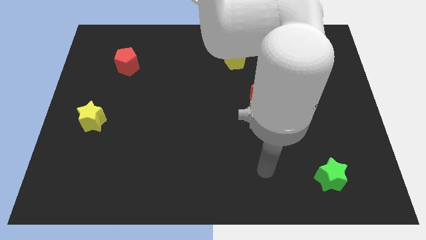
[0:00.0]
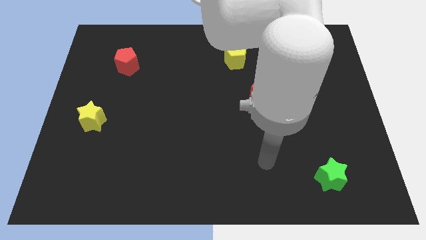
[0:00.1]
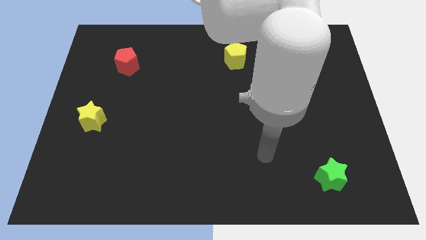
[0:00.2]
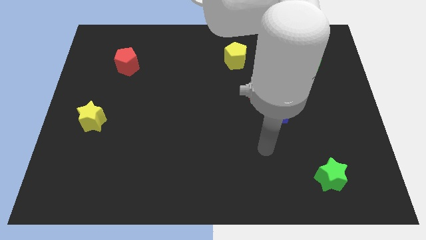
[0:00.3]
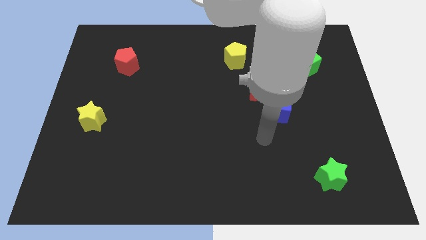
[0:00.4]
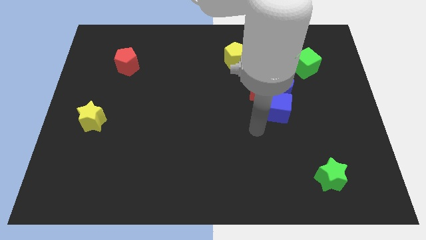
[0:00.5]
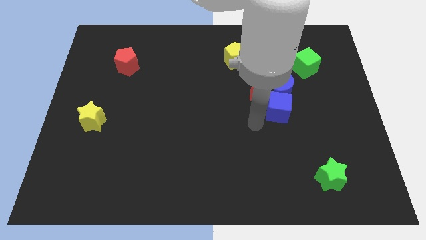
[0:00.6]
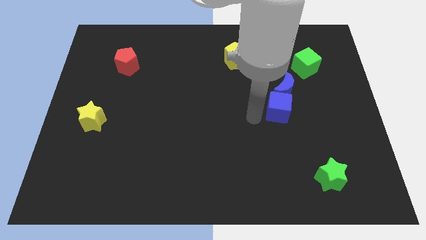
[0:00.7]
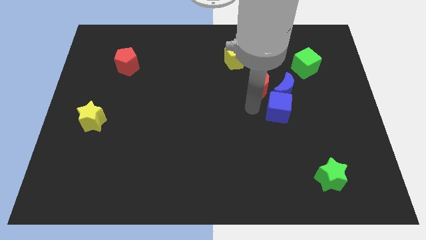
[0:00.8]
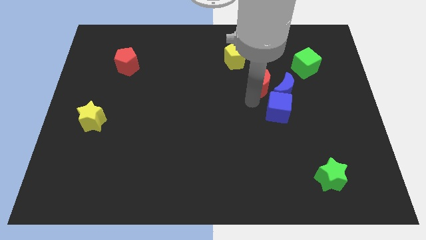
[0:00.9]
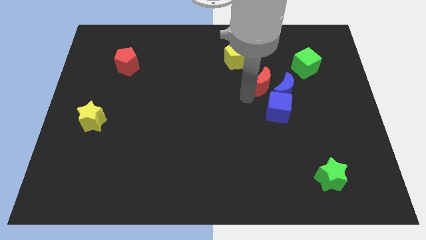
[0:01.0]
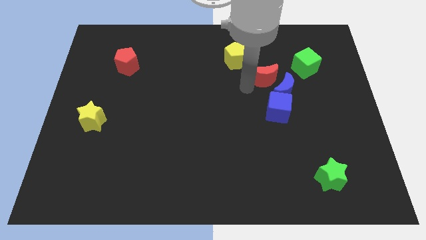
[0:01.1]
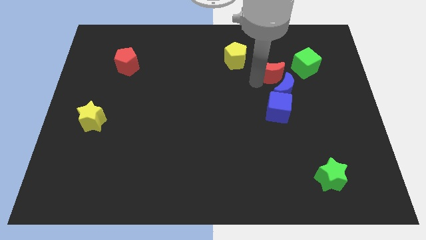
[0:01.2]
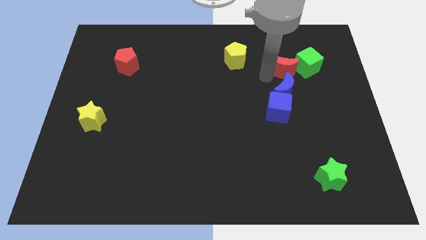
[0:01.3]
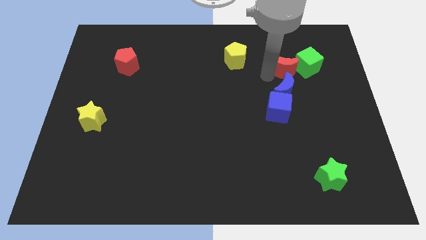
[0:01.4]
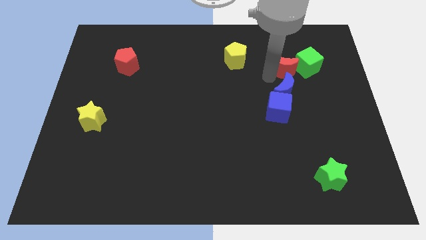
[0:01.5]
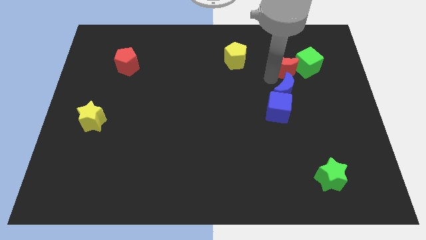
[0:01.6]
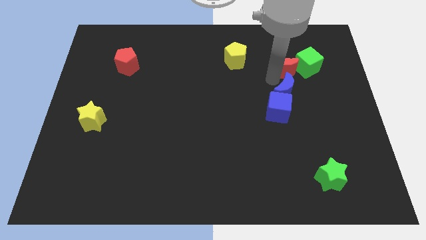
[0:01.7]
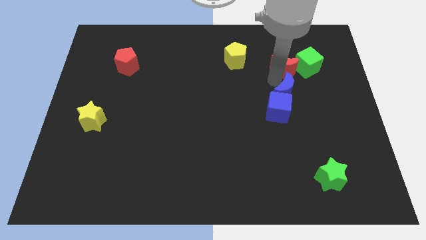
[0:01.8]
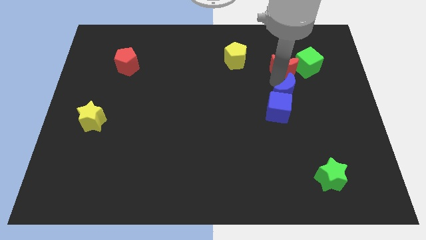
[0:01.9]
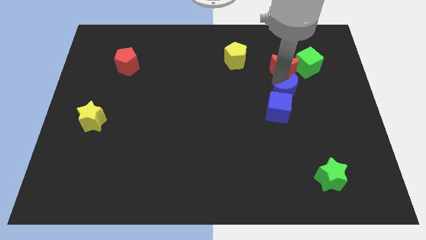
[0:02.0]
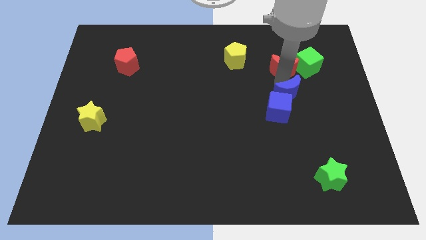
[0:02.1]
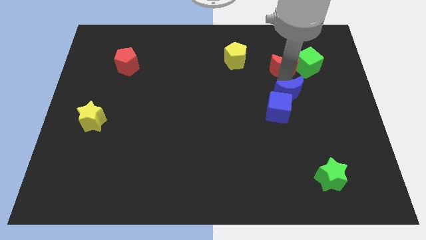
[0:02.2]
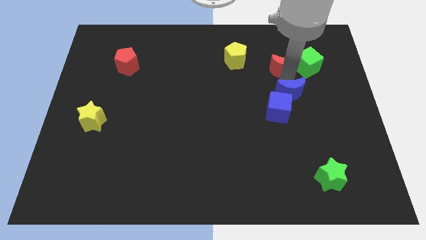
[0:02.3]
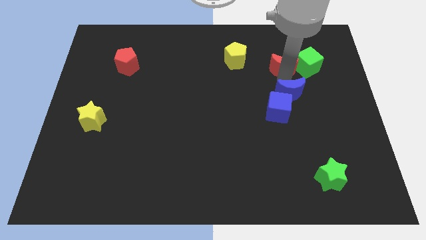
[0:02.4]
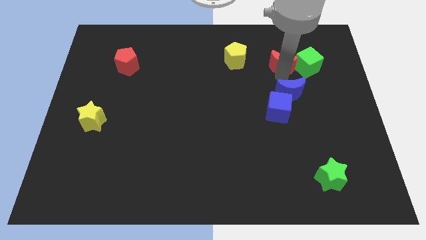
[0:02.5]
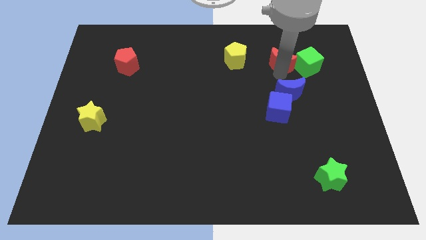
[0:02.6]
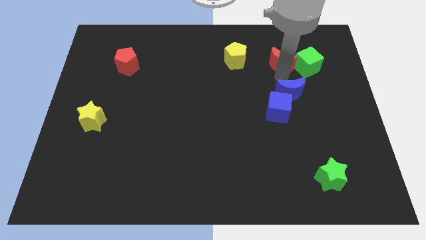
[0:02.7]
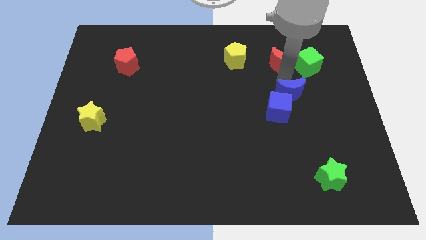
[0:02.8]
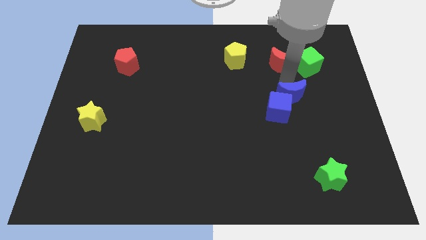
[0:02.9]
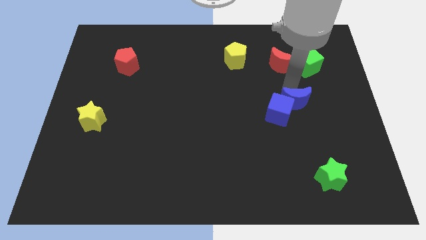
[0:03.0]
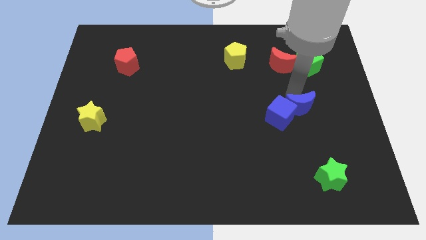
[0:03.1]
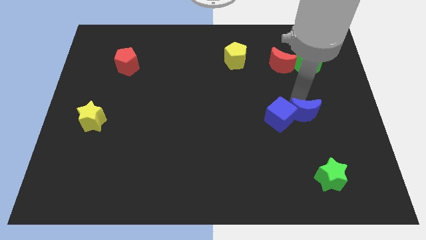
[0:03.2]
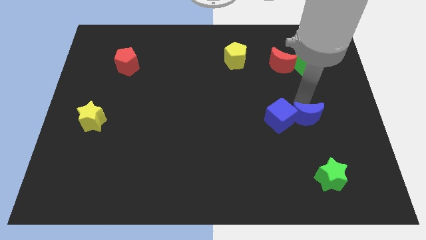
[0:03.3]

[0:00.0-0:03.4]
slightly slide the blue moon down

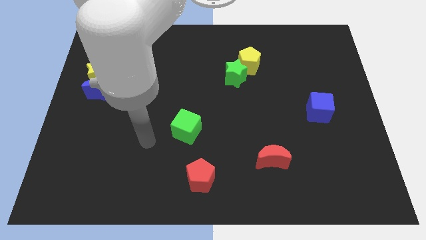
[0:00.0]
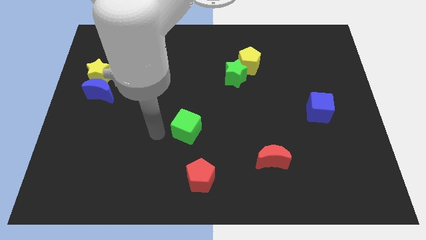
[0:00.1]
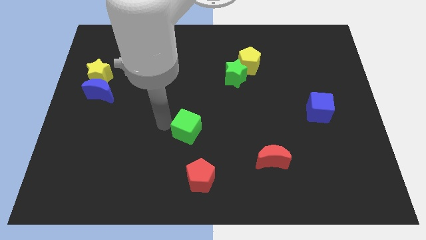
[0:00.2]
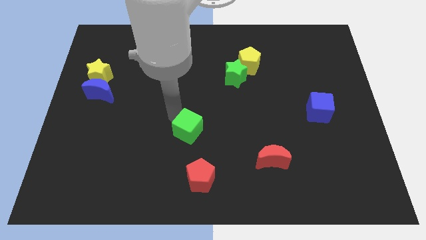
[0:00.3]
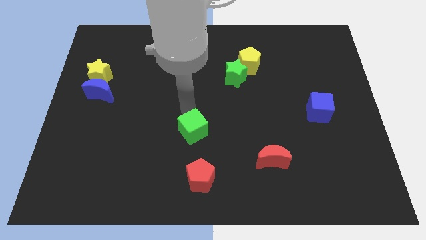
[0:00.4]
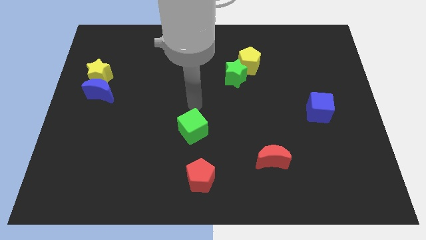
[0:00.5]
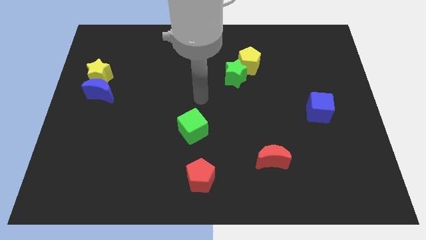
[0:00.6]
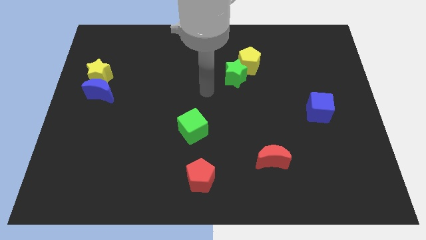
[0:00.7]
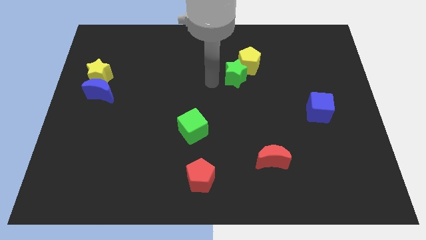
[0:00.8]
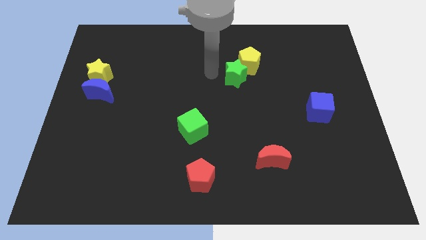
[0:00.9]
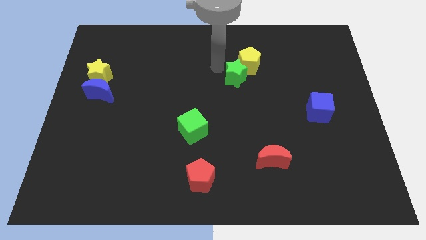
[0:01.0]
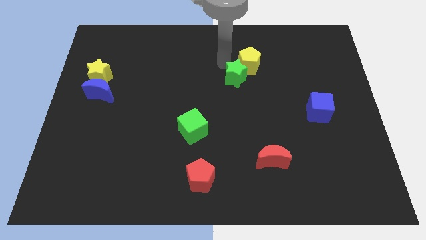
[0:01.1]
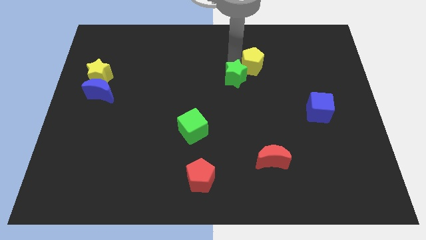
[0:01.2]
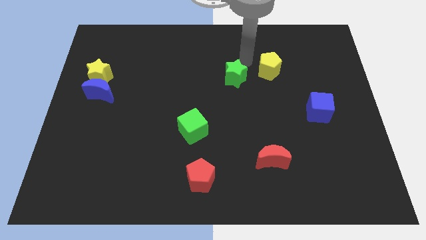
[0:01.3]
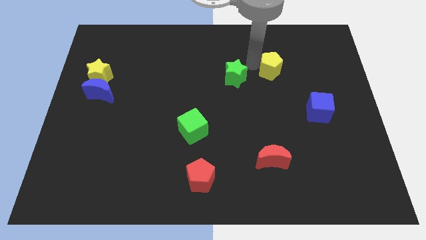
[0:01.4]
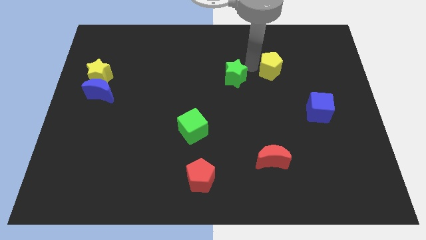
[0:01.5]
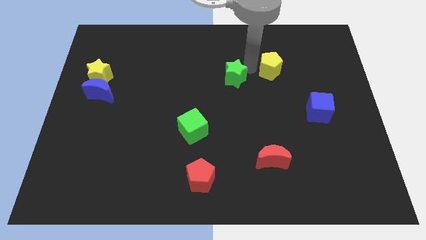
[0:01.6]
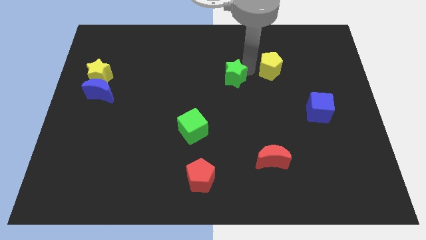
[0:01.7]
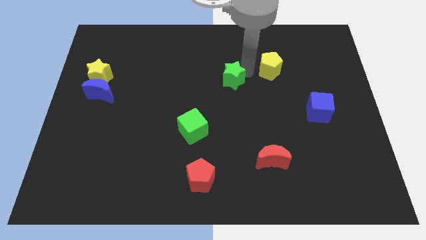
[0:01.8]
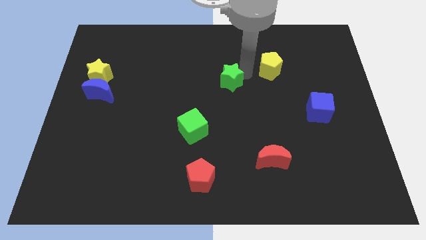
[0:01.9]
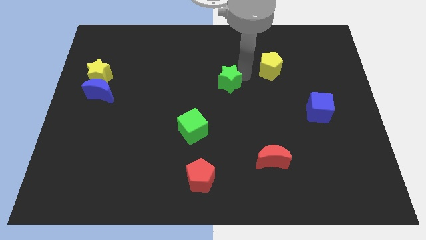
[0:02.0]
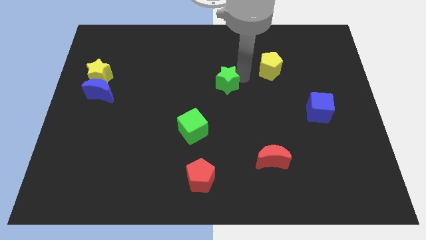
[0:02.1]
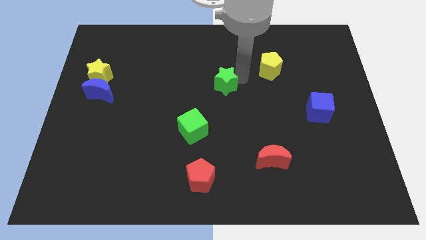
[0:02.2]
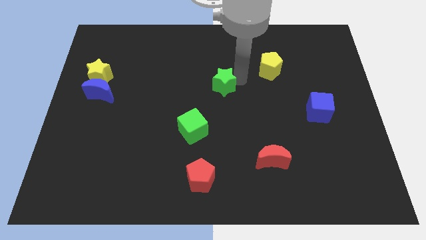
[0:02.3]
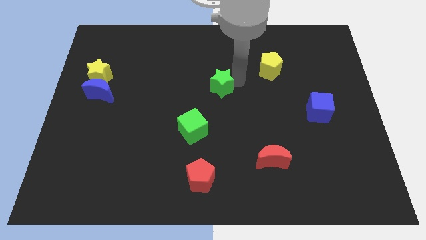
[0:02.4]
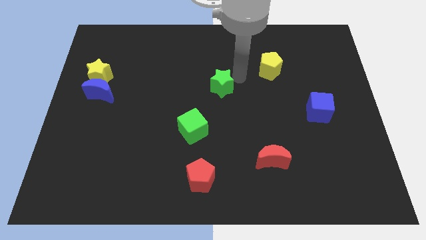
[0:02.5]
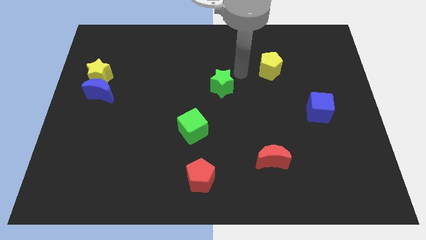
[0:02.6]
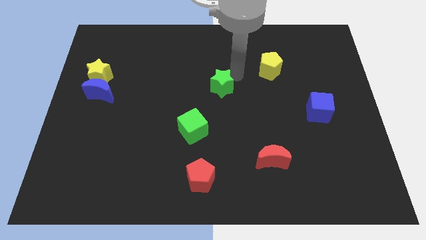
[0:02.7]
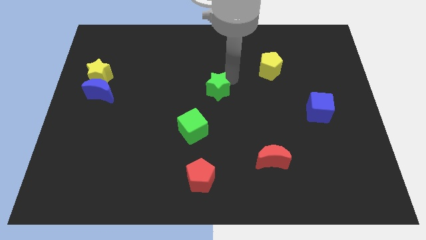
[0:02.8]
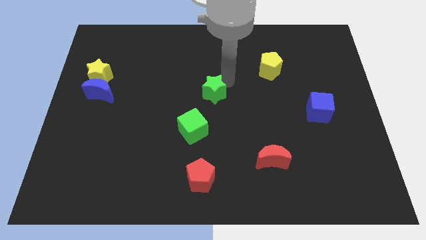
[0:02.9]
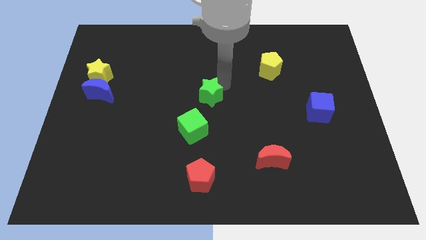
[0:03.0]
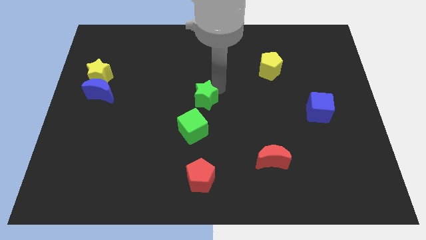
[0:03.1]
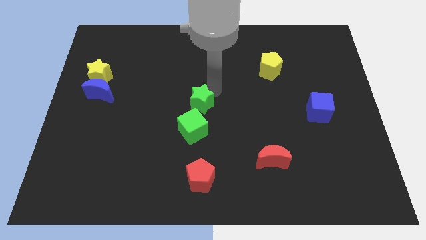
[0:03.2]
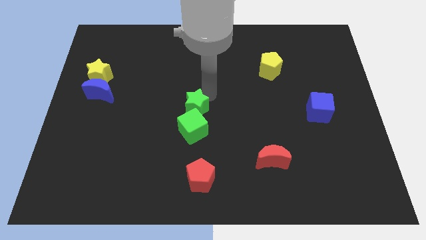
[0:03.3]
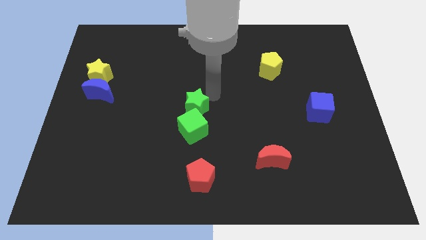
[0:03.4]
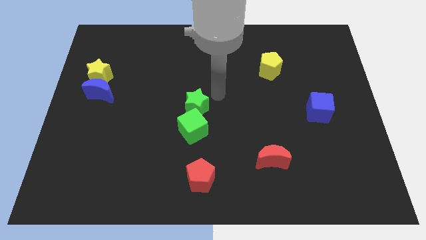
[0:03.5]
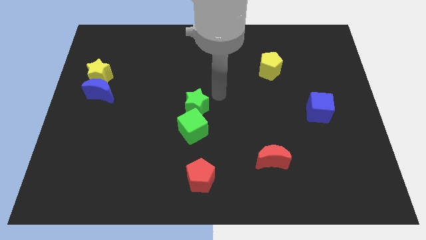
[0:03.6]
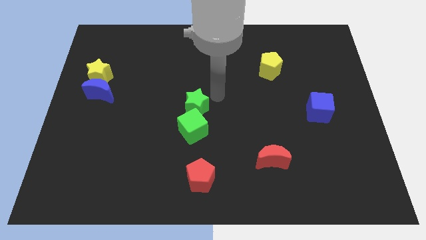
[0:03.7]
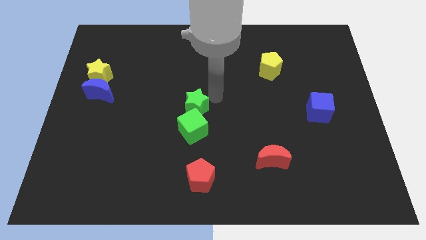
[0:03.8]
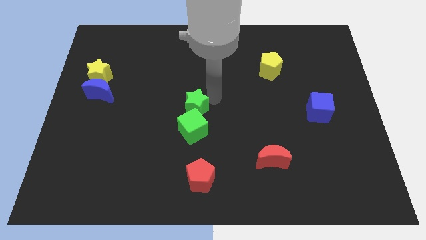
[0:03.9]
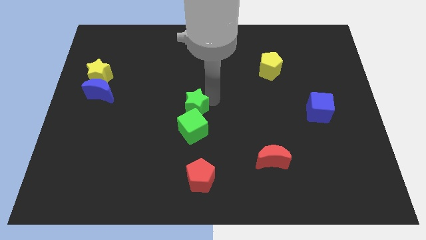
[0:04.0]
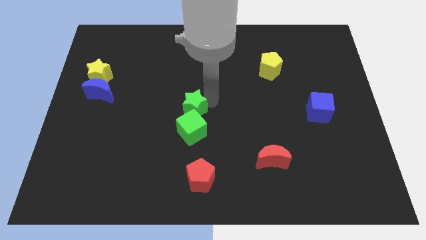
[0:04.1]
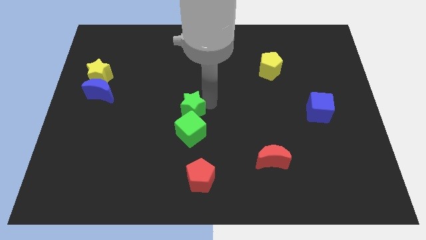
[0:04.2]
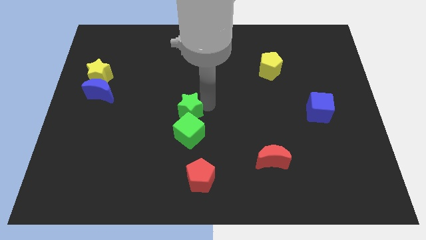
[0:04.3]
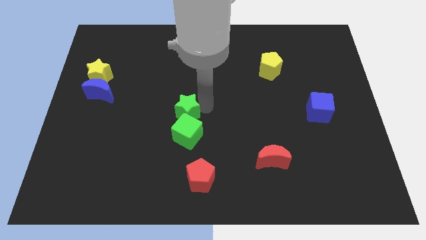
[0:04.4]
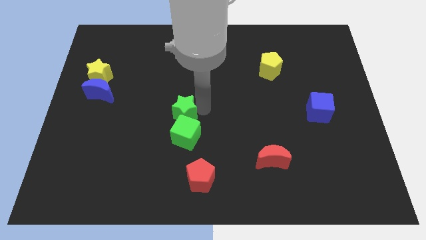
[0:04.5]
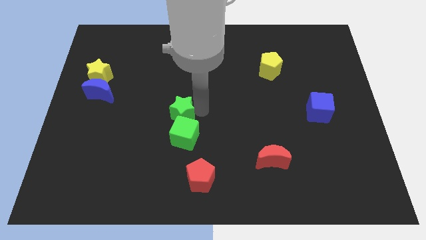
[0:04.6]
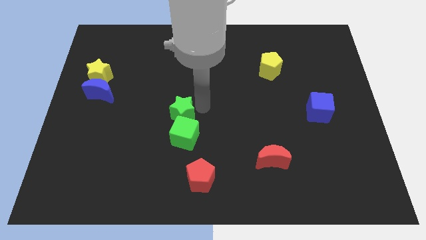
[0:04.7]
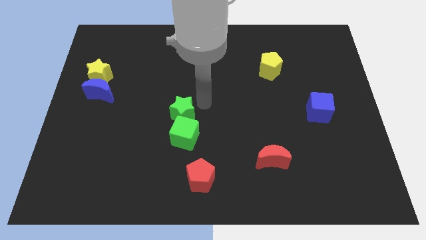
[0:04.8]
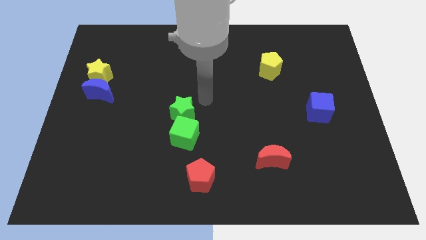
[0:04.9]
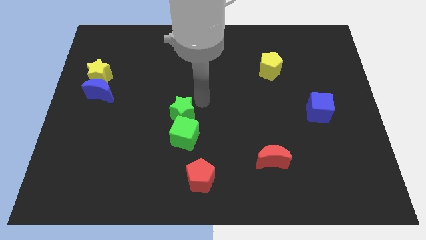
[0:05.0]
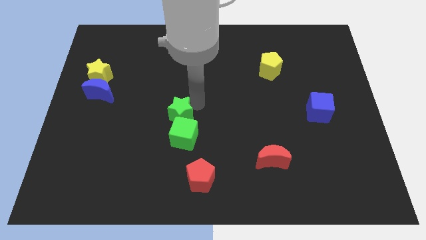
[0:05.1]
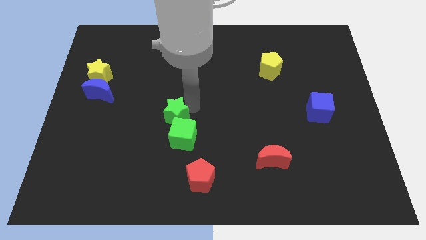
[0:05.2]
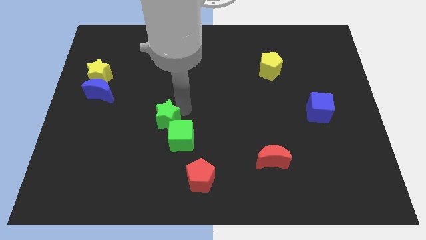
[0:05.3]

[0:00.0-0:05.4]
move the green star down and to the left diagonally
